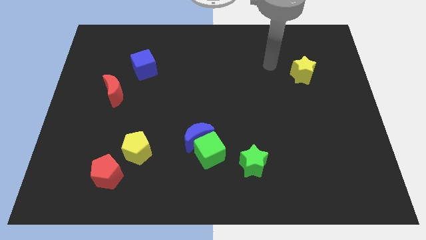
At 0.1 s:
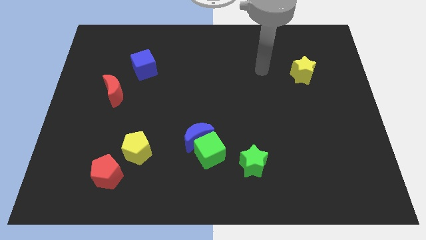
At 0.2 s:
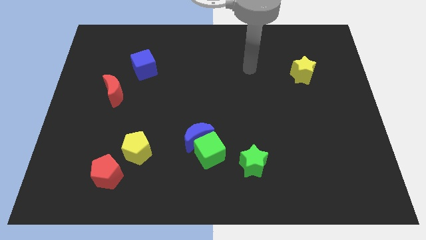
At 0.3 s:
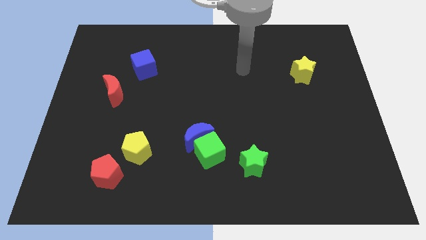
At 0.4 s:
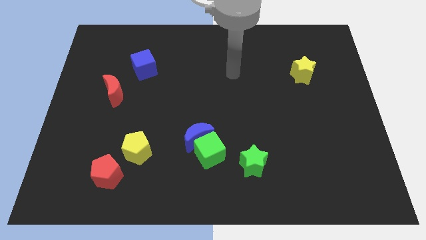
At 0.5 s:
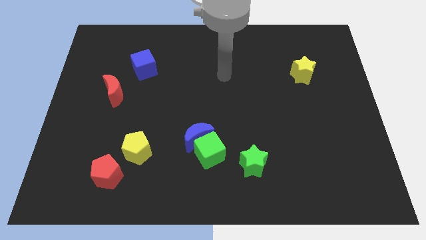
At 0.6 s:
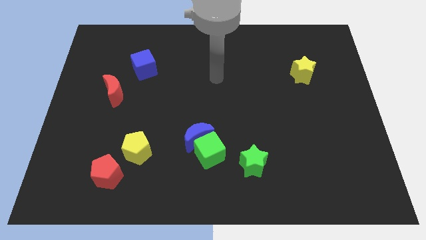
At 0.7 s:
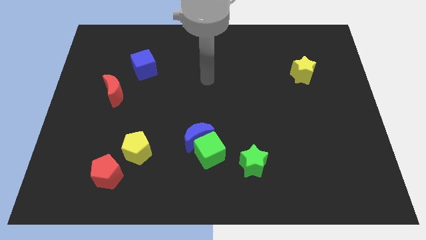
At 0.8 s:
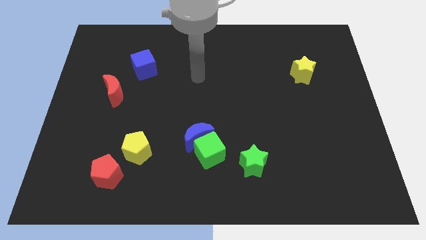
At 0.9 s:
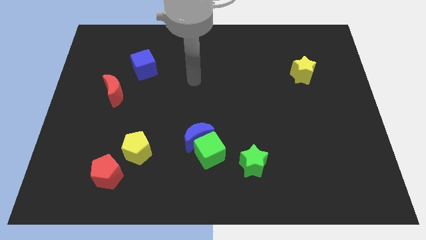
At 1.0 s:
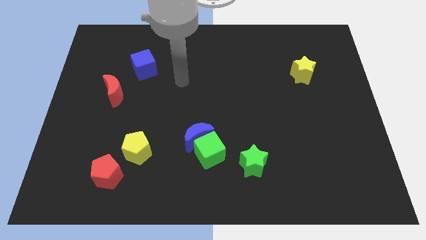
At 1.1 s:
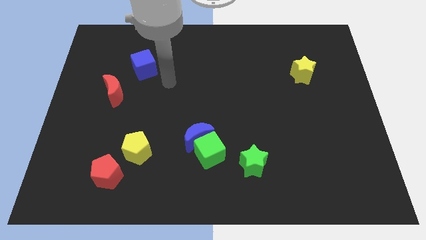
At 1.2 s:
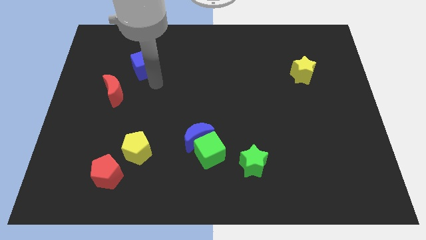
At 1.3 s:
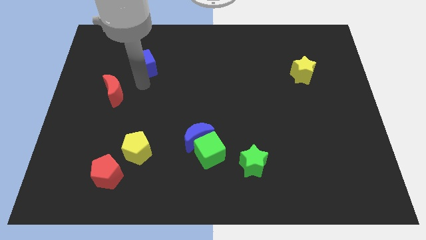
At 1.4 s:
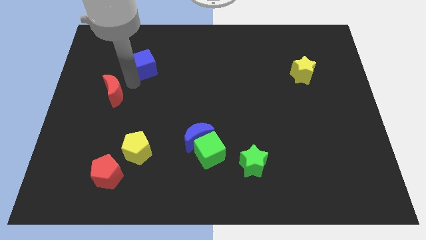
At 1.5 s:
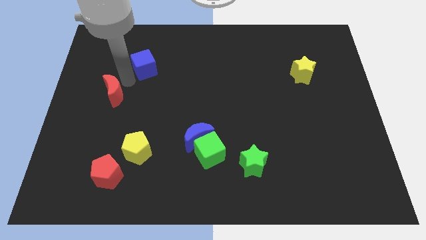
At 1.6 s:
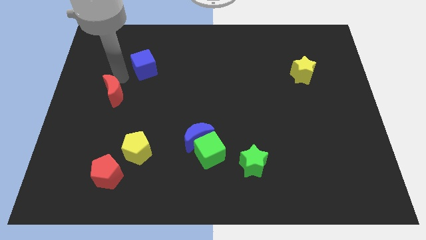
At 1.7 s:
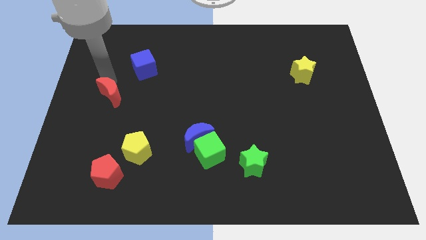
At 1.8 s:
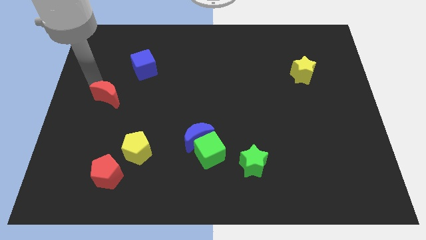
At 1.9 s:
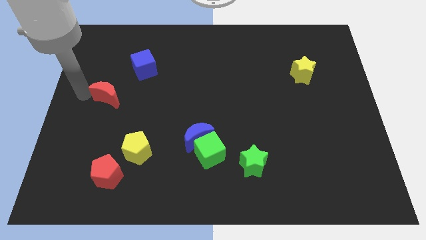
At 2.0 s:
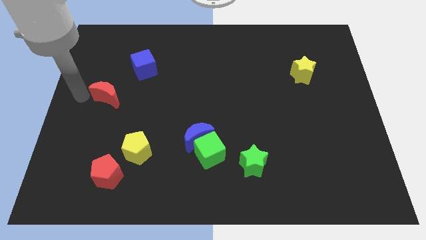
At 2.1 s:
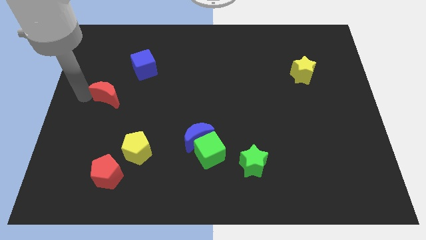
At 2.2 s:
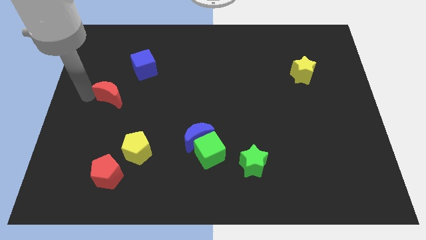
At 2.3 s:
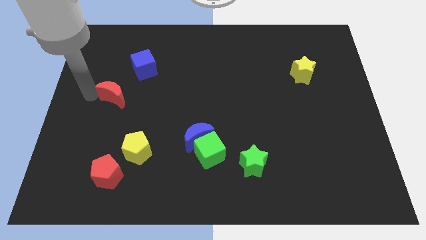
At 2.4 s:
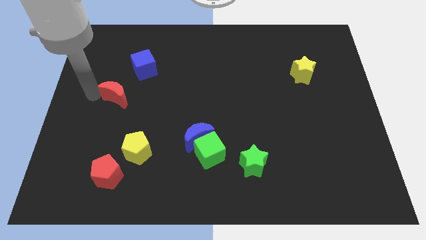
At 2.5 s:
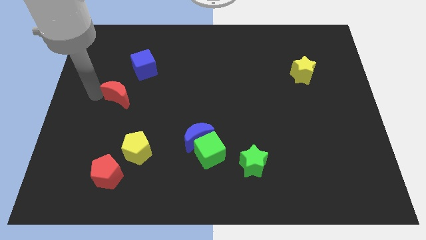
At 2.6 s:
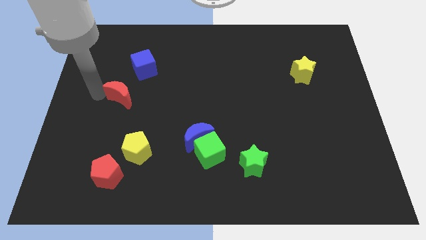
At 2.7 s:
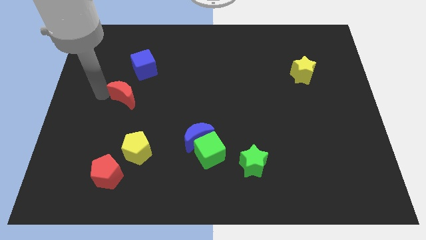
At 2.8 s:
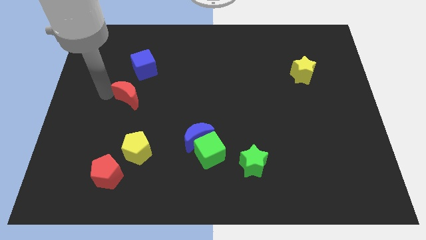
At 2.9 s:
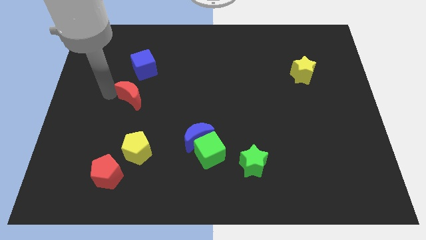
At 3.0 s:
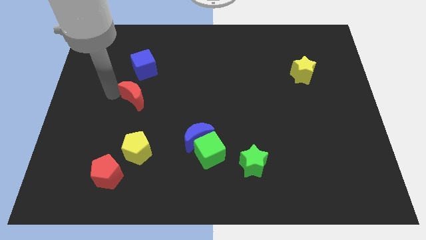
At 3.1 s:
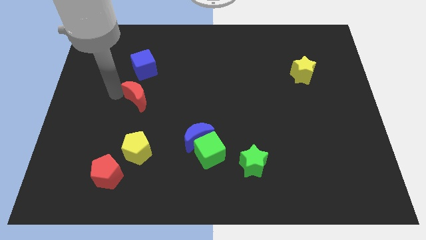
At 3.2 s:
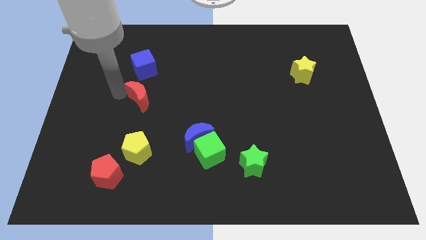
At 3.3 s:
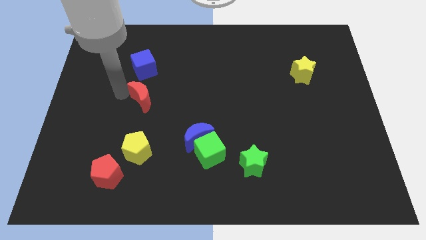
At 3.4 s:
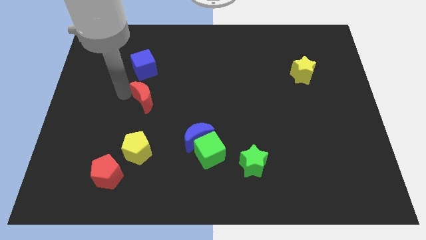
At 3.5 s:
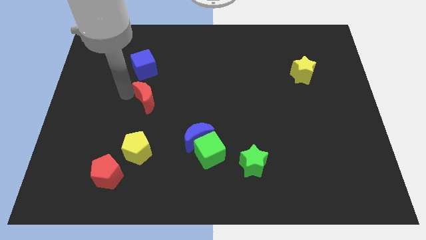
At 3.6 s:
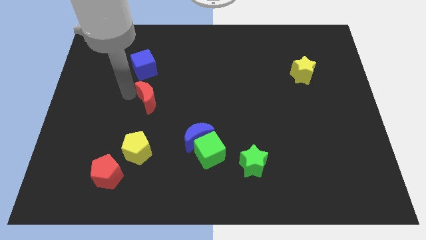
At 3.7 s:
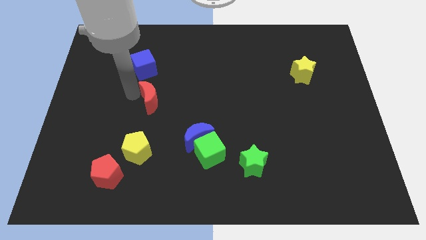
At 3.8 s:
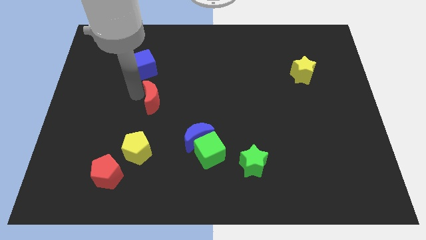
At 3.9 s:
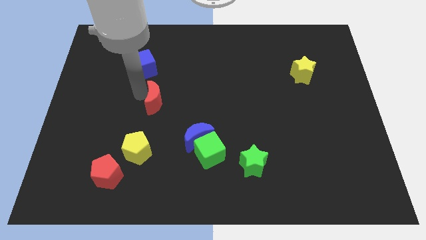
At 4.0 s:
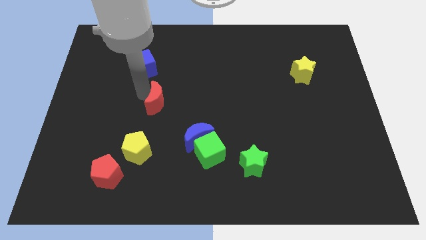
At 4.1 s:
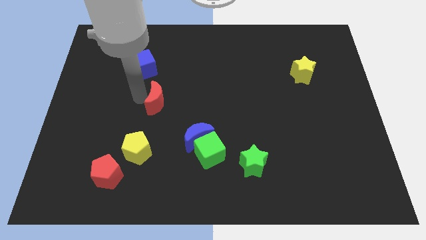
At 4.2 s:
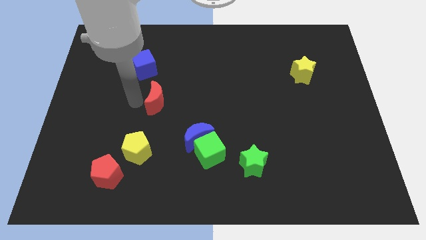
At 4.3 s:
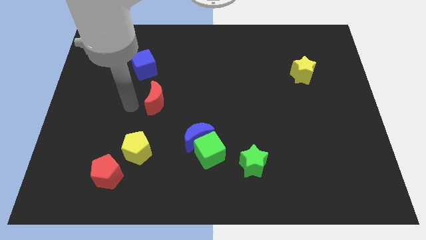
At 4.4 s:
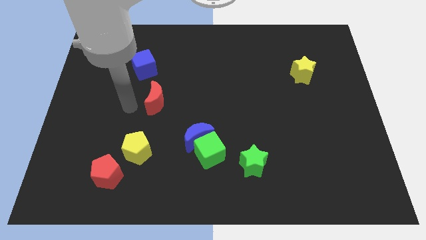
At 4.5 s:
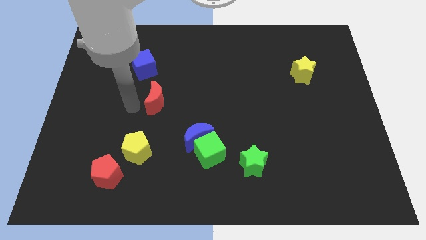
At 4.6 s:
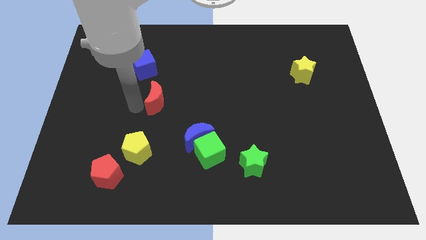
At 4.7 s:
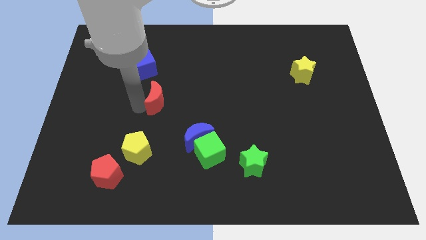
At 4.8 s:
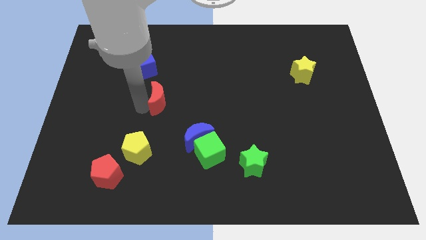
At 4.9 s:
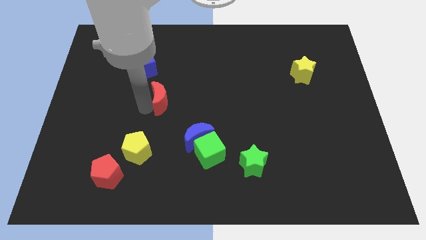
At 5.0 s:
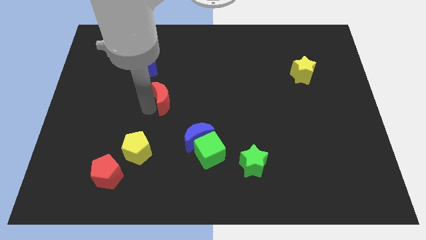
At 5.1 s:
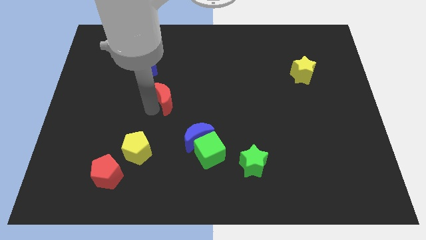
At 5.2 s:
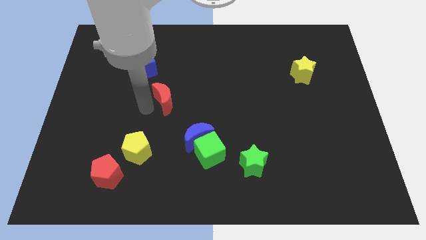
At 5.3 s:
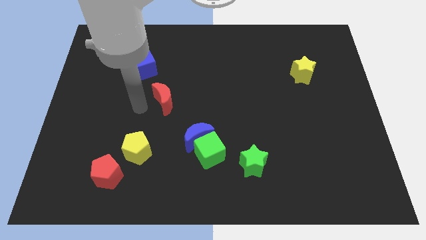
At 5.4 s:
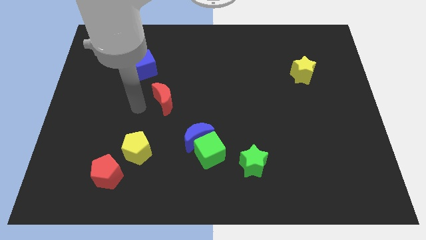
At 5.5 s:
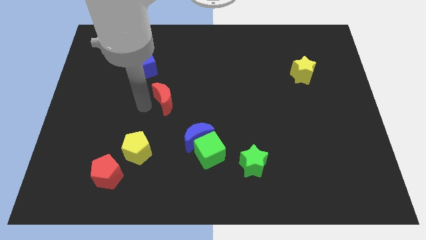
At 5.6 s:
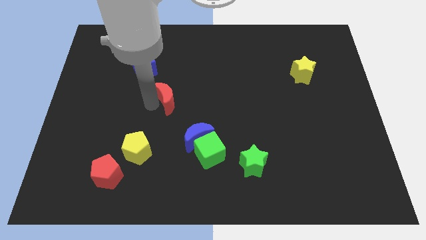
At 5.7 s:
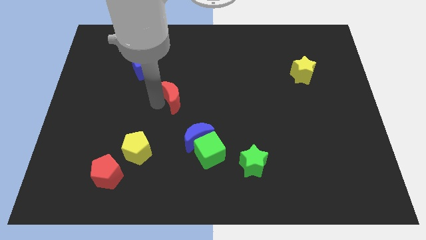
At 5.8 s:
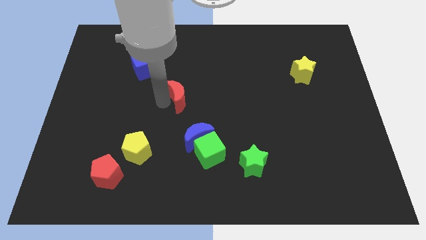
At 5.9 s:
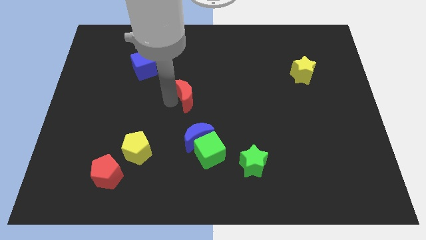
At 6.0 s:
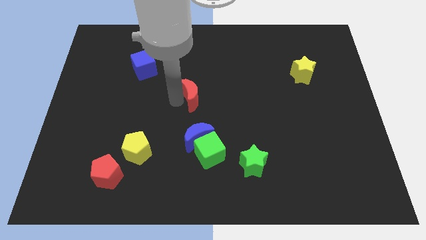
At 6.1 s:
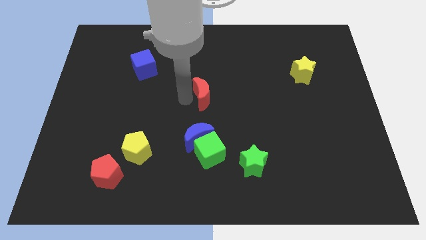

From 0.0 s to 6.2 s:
push the red moon to the right

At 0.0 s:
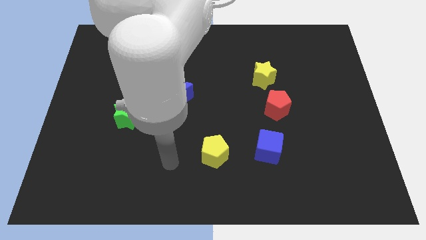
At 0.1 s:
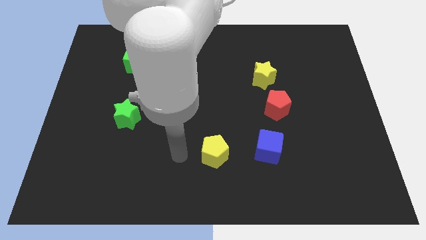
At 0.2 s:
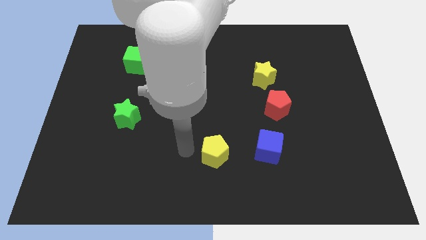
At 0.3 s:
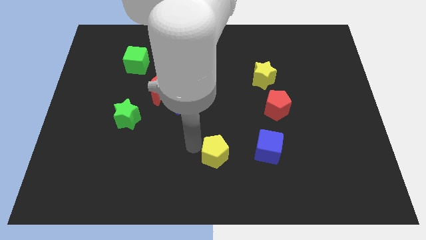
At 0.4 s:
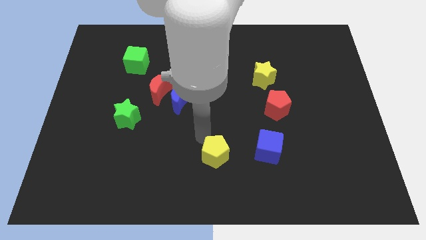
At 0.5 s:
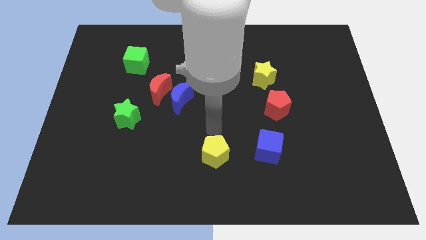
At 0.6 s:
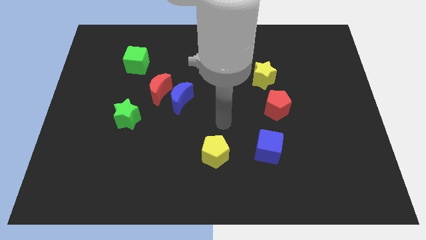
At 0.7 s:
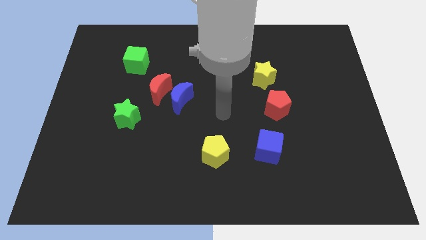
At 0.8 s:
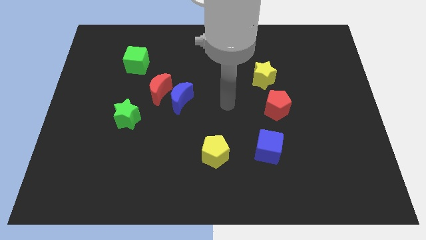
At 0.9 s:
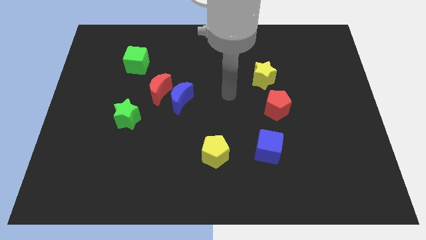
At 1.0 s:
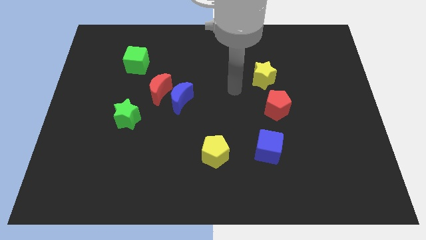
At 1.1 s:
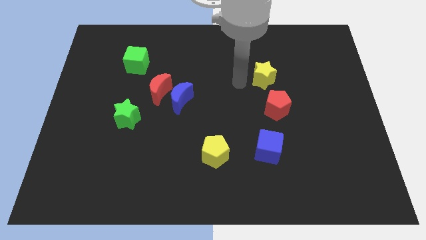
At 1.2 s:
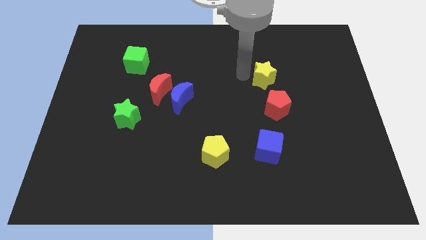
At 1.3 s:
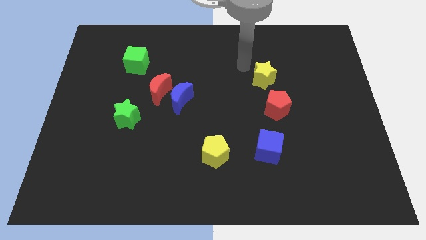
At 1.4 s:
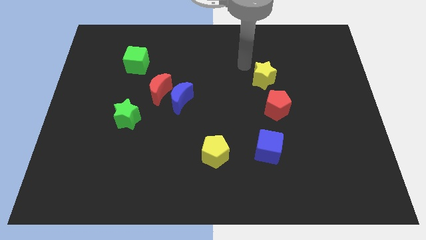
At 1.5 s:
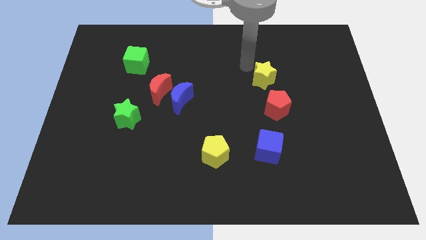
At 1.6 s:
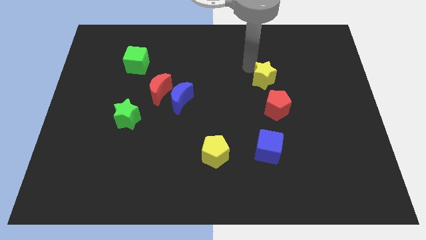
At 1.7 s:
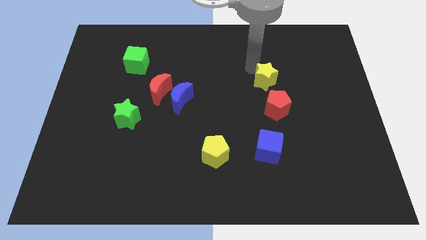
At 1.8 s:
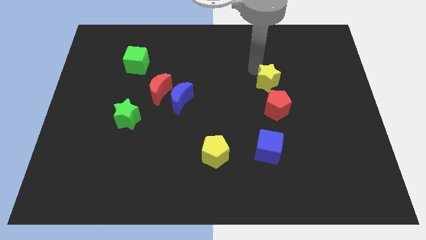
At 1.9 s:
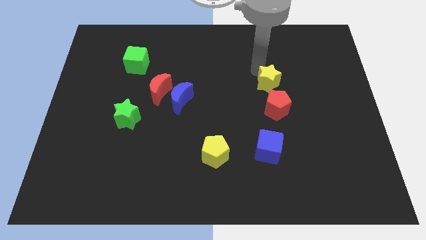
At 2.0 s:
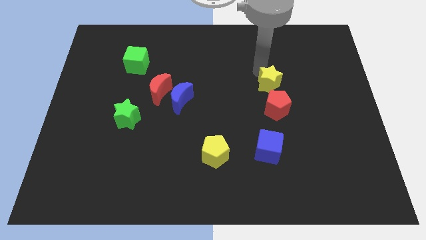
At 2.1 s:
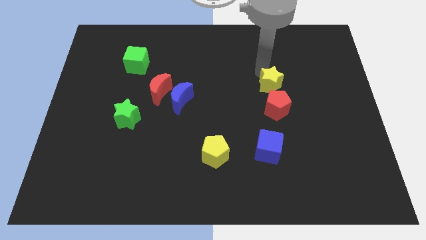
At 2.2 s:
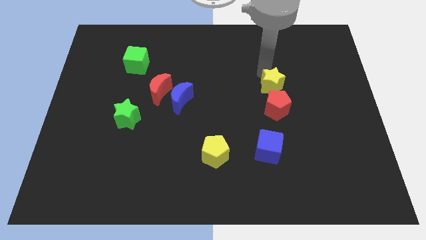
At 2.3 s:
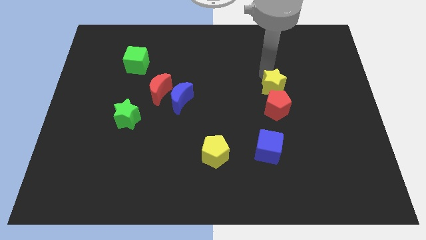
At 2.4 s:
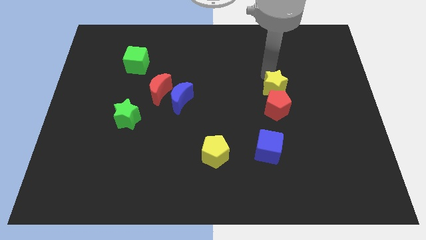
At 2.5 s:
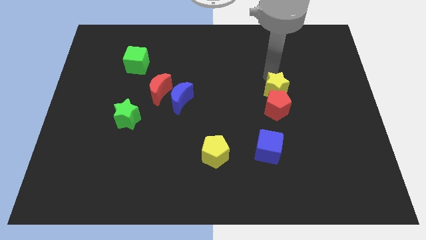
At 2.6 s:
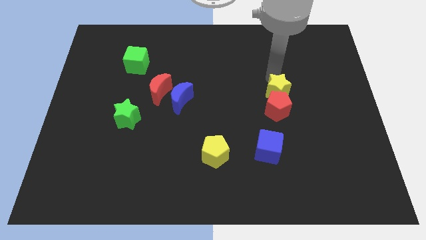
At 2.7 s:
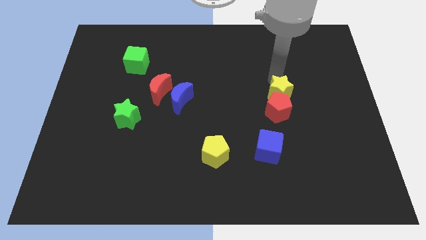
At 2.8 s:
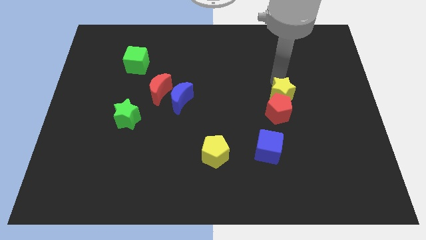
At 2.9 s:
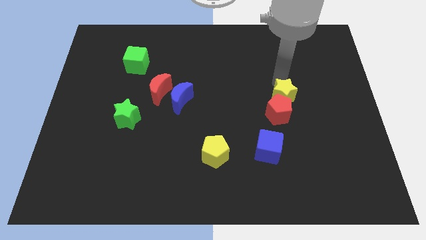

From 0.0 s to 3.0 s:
push the yellow star somewhat diagonally down and to the right
